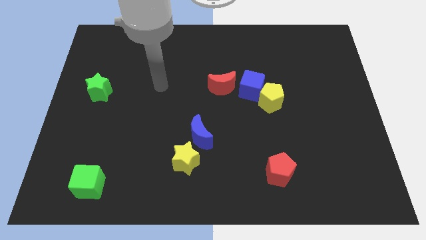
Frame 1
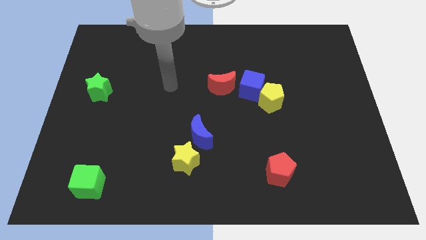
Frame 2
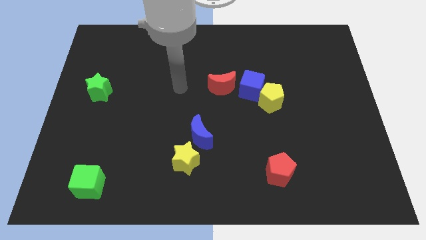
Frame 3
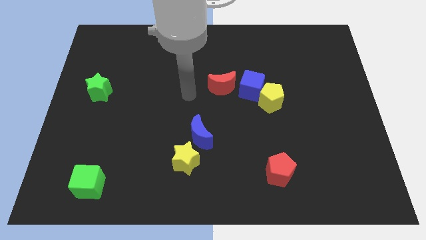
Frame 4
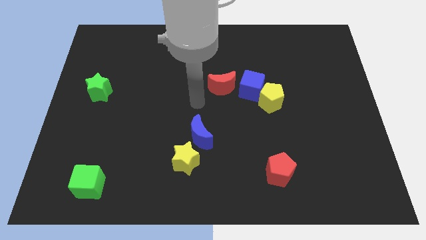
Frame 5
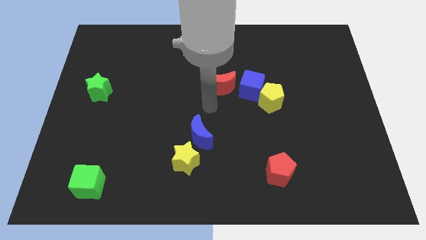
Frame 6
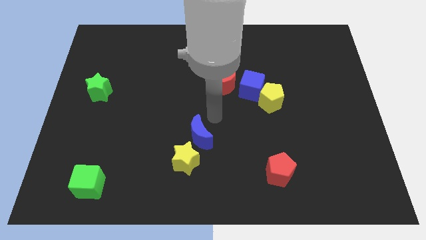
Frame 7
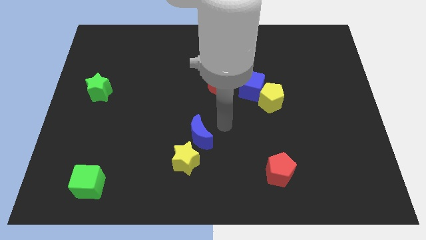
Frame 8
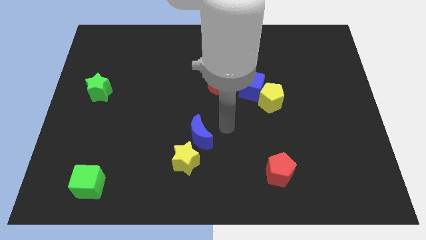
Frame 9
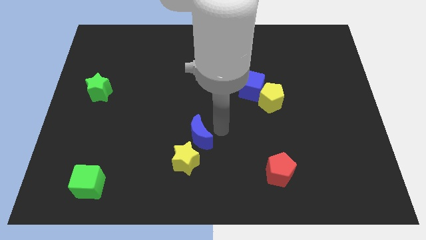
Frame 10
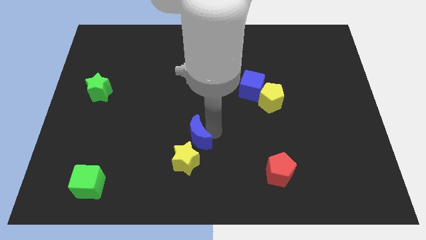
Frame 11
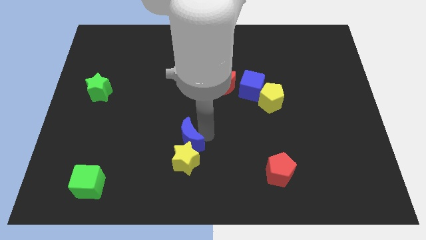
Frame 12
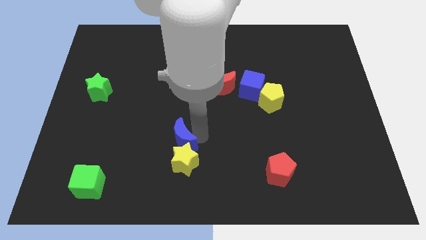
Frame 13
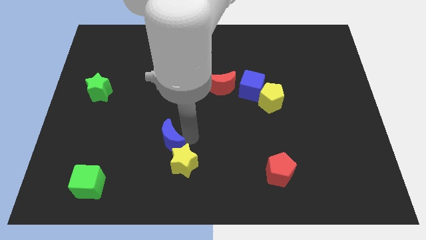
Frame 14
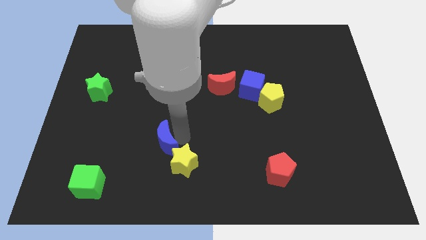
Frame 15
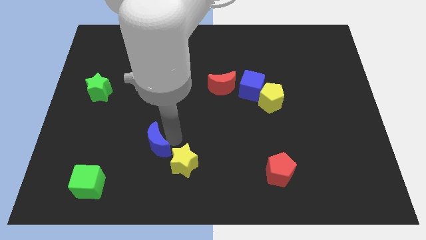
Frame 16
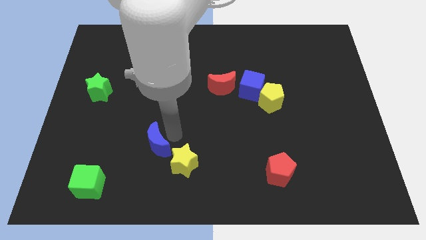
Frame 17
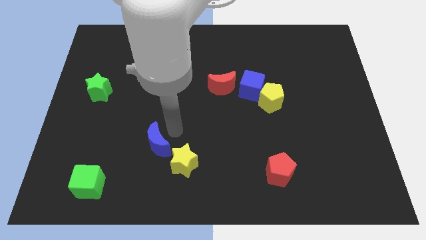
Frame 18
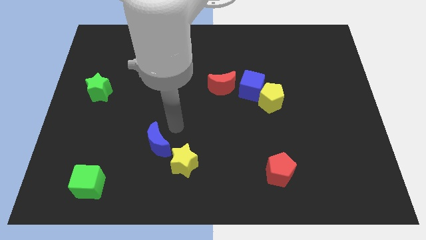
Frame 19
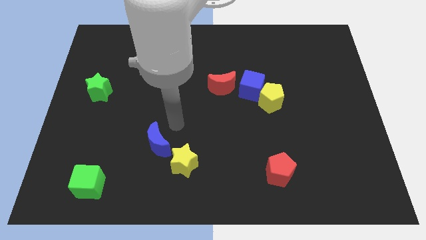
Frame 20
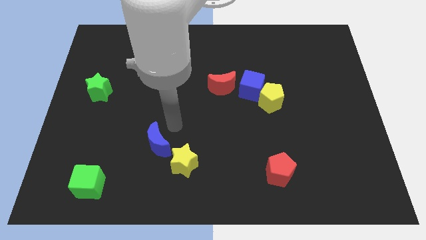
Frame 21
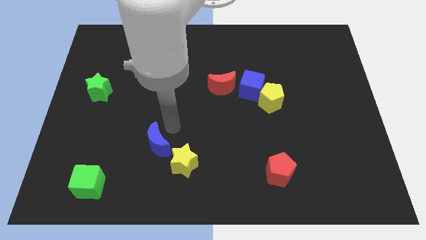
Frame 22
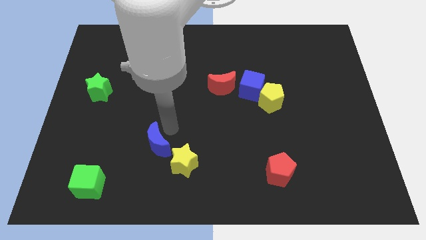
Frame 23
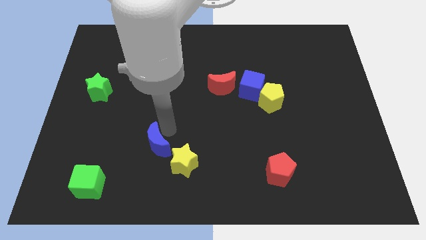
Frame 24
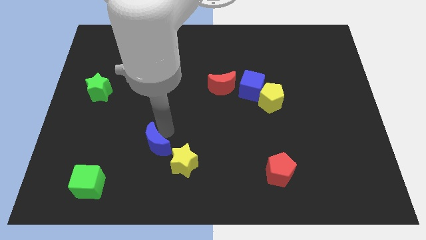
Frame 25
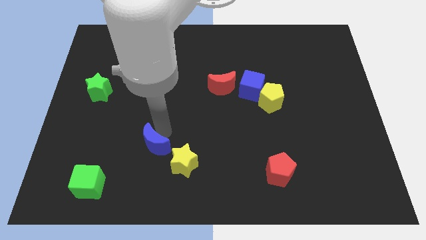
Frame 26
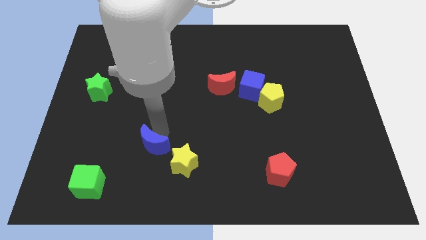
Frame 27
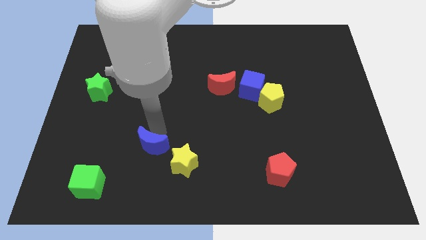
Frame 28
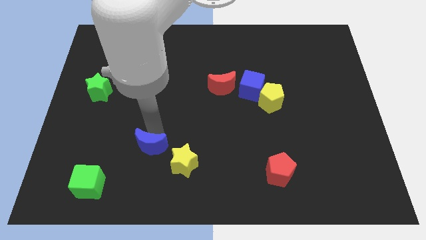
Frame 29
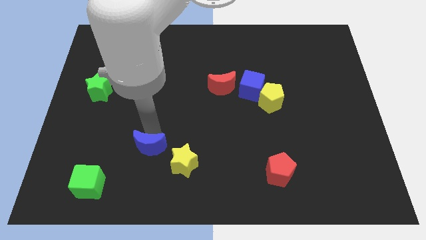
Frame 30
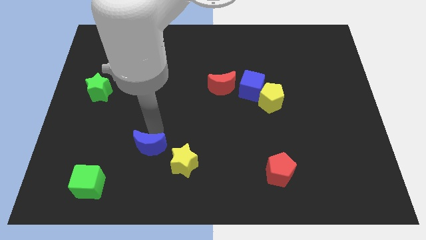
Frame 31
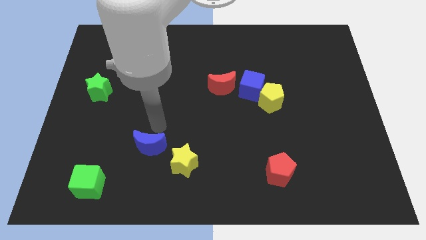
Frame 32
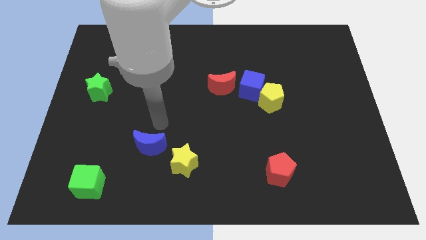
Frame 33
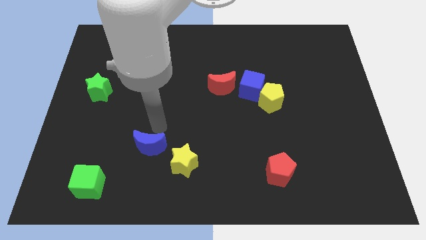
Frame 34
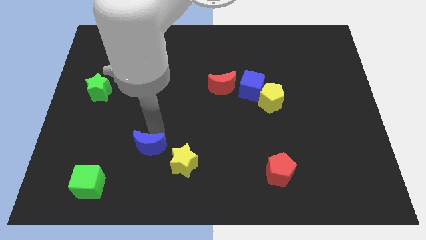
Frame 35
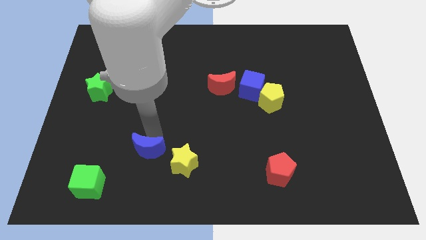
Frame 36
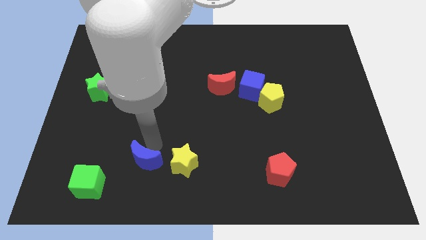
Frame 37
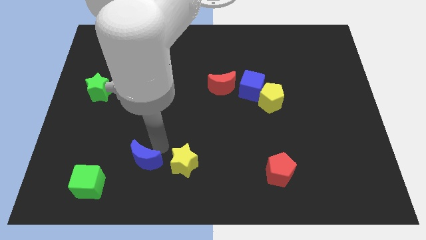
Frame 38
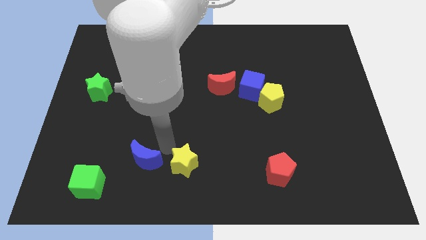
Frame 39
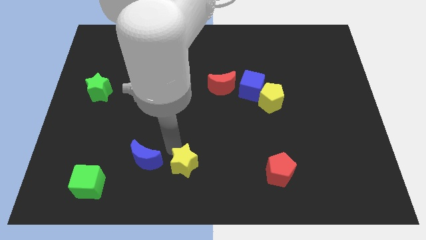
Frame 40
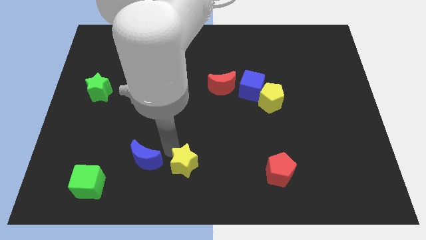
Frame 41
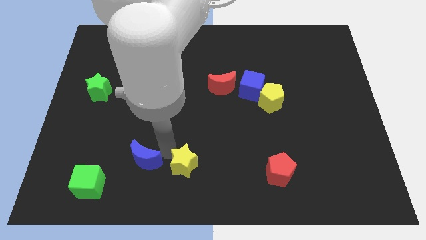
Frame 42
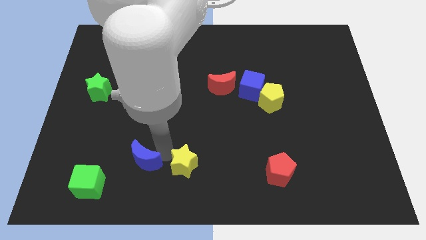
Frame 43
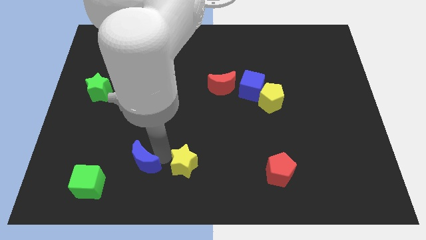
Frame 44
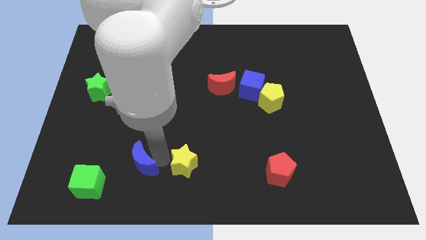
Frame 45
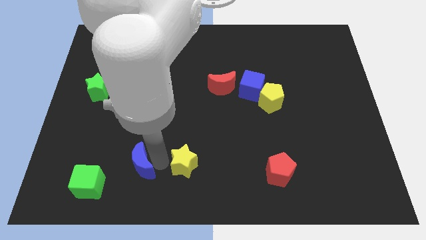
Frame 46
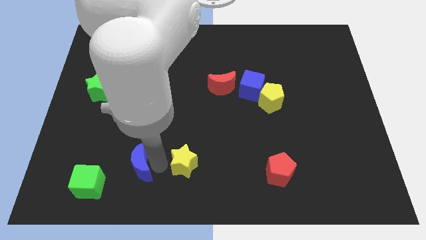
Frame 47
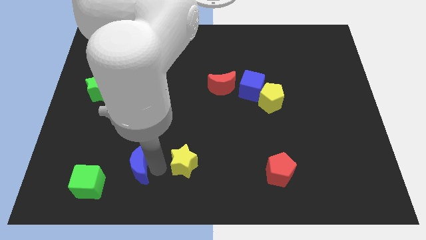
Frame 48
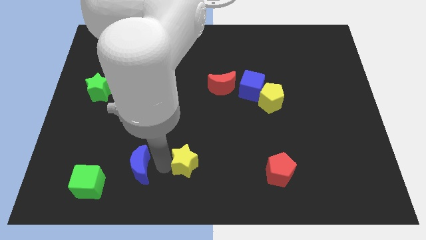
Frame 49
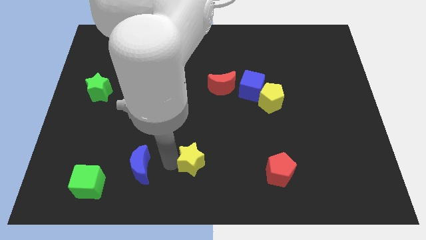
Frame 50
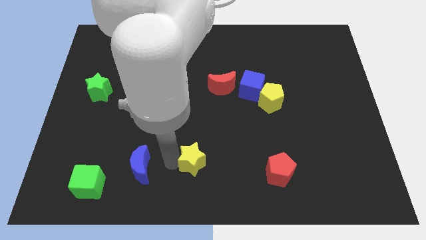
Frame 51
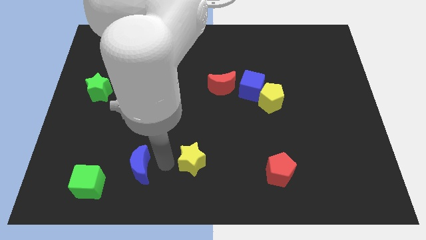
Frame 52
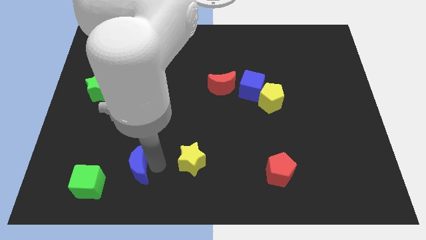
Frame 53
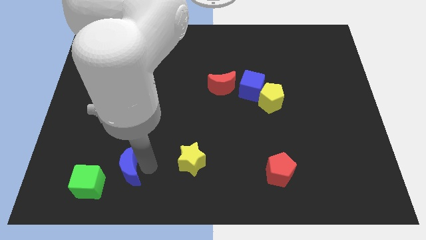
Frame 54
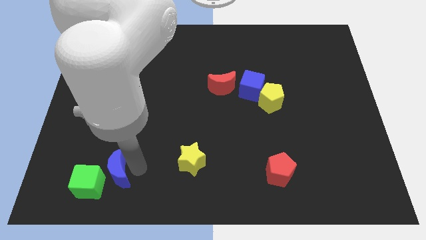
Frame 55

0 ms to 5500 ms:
move the blue moon towards the green cube

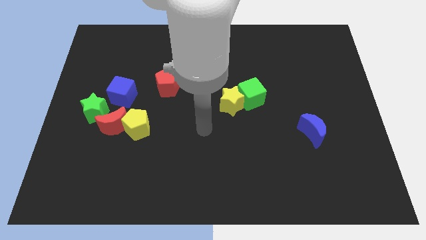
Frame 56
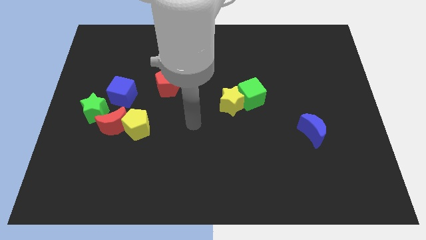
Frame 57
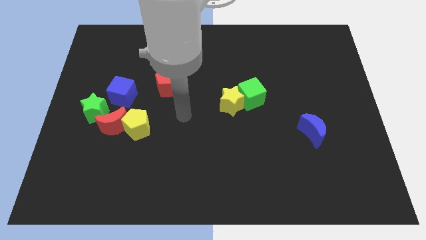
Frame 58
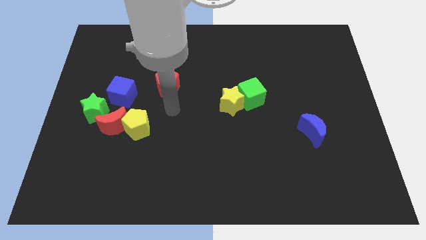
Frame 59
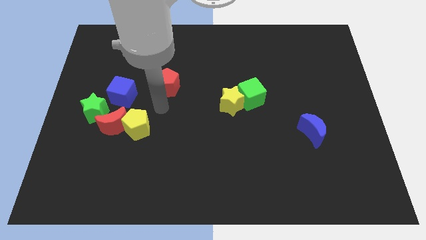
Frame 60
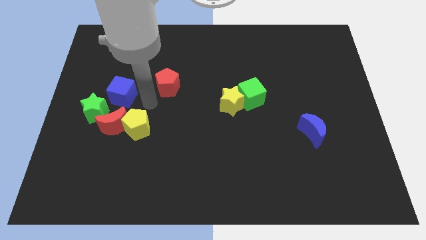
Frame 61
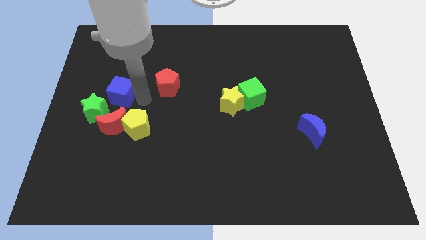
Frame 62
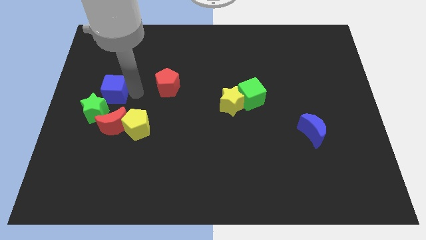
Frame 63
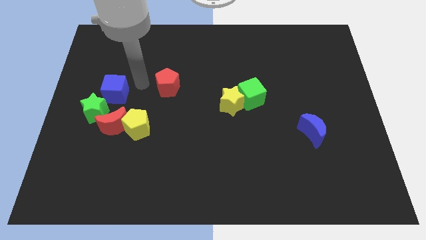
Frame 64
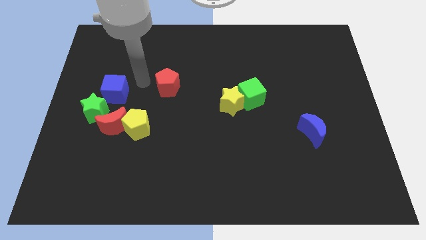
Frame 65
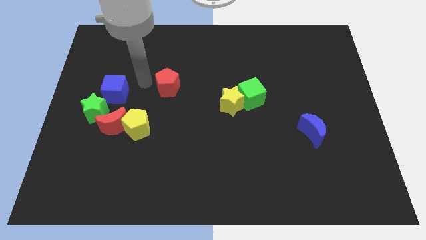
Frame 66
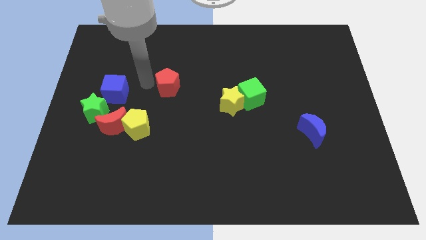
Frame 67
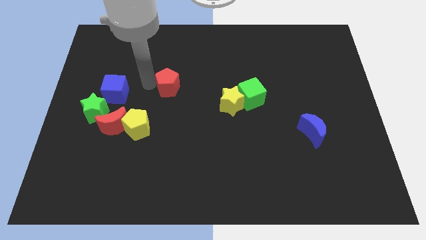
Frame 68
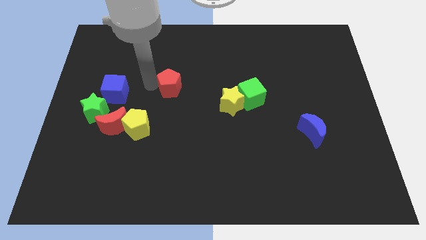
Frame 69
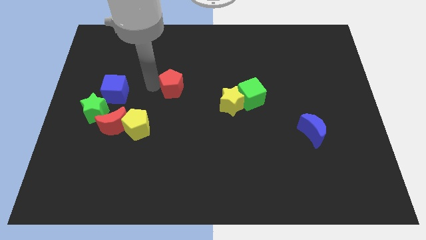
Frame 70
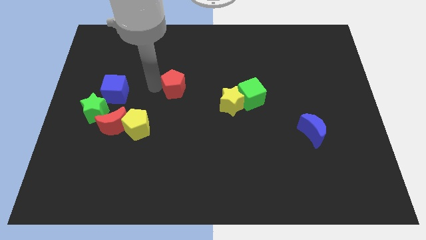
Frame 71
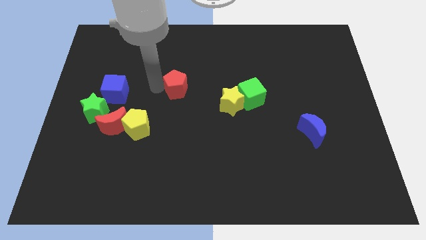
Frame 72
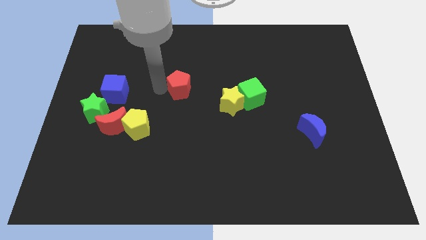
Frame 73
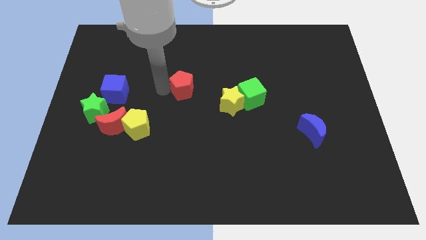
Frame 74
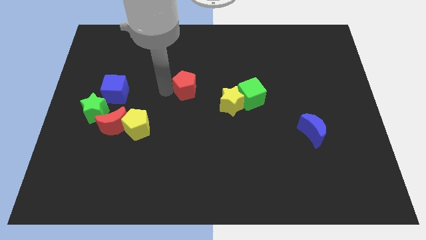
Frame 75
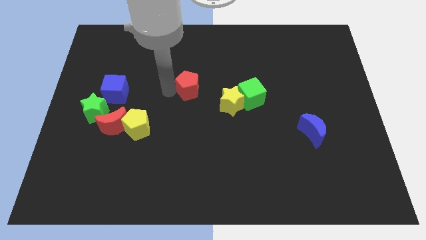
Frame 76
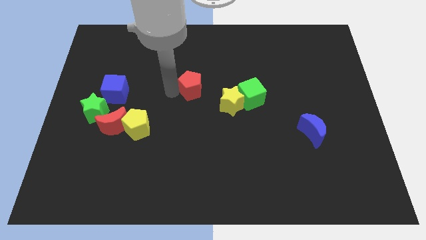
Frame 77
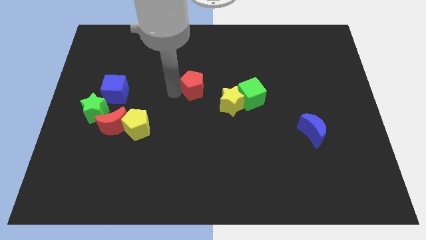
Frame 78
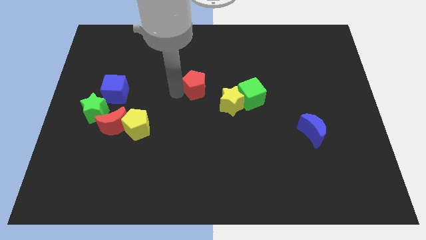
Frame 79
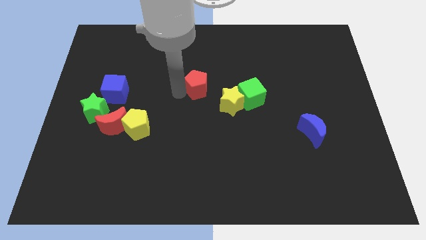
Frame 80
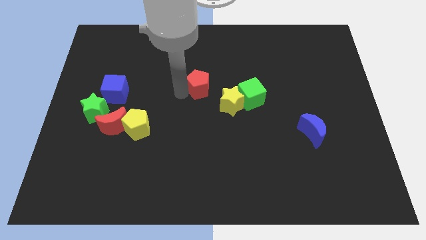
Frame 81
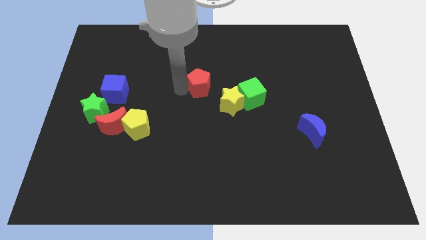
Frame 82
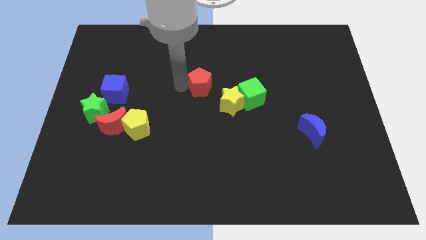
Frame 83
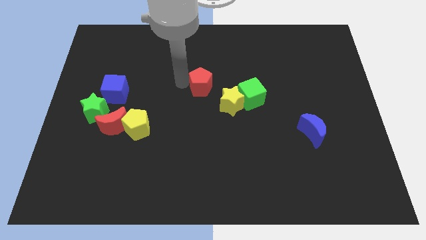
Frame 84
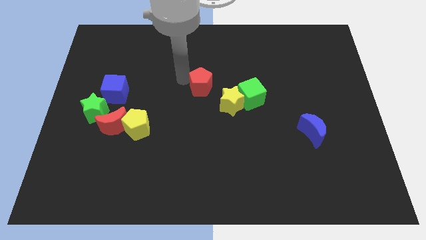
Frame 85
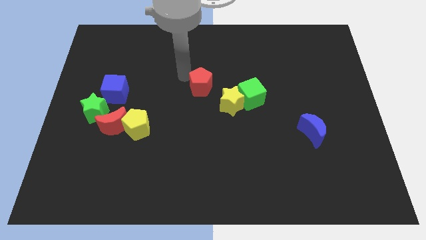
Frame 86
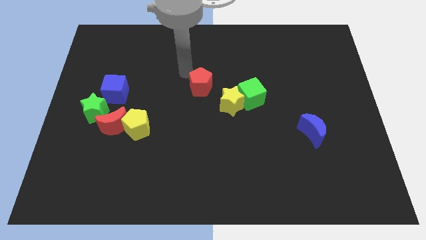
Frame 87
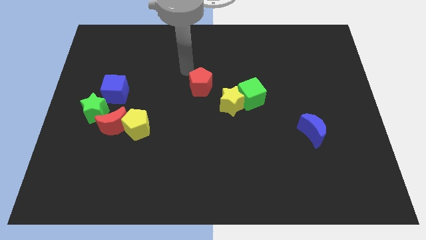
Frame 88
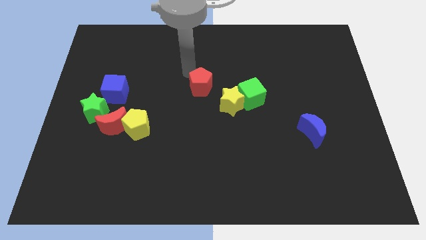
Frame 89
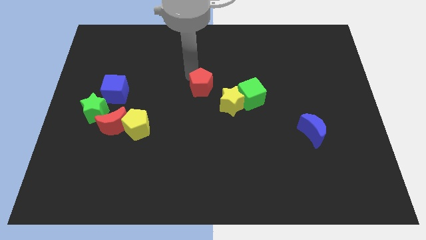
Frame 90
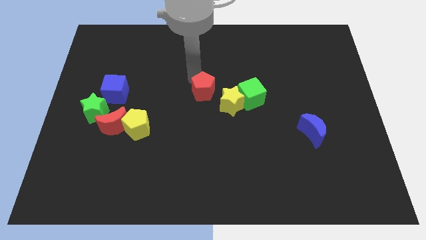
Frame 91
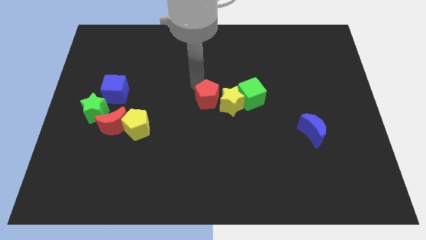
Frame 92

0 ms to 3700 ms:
slide the red pentagon to the yellow star
